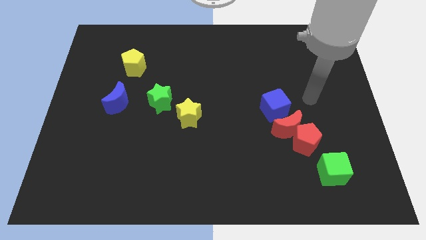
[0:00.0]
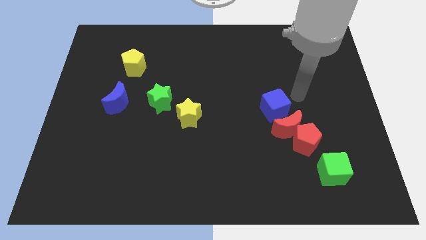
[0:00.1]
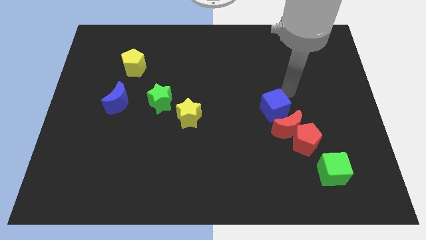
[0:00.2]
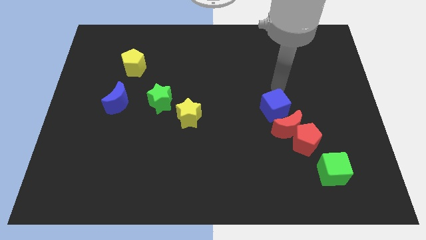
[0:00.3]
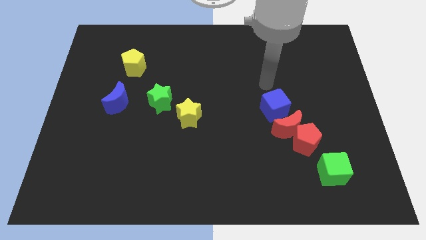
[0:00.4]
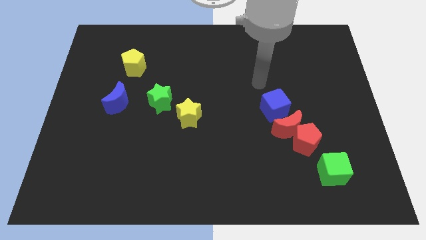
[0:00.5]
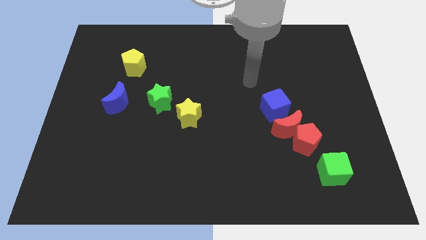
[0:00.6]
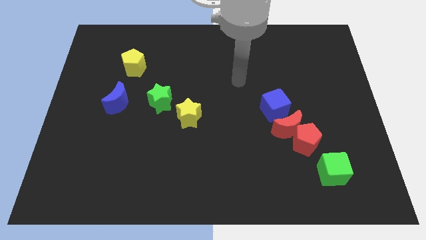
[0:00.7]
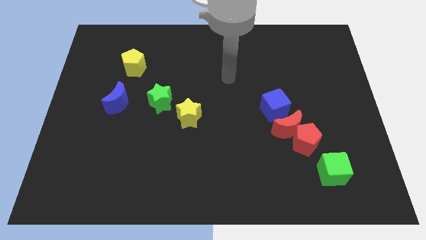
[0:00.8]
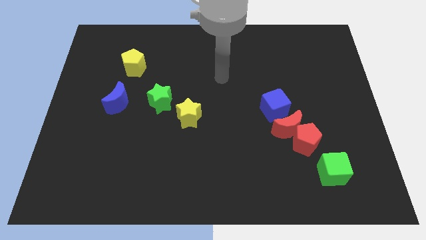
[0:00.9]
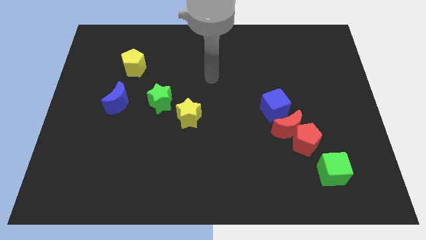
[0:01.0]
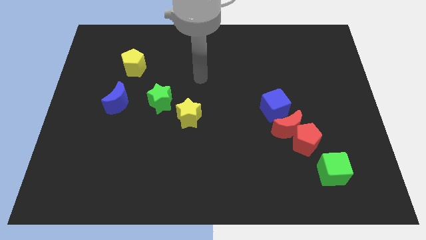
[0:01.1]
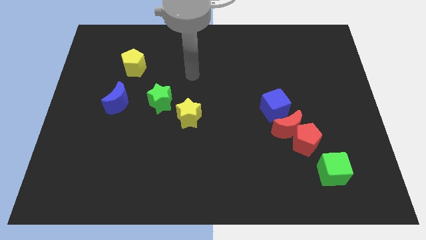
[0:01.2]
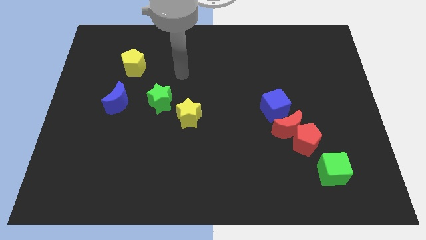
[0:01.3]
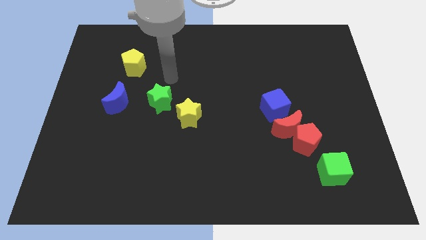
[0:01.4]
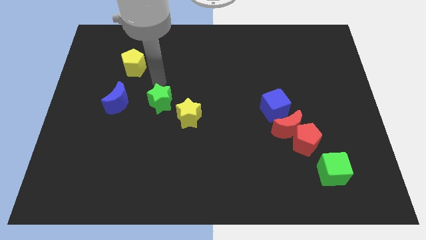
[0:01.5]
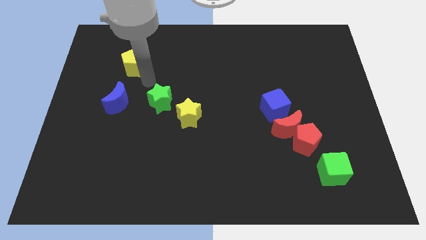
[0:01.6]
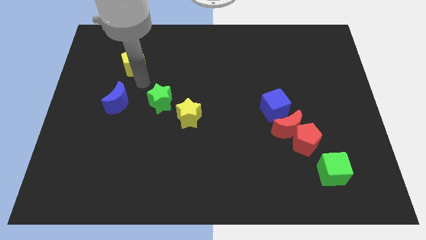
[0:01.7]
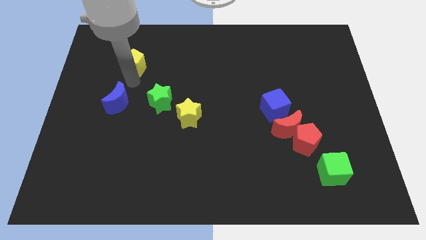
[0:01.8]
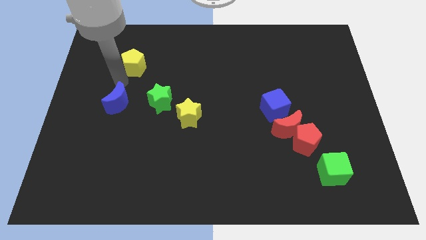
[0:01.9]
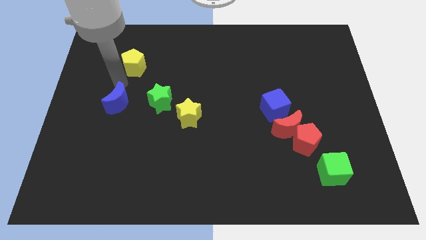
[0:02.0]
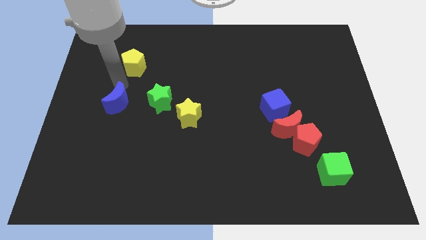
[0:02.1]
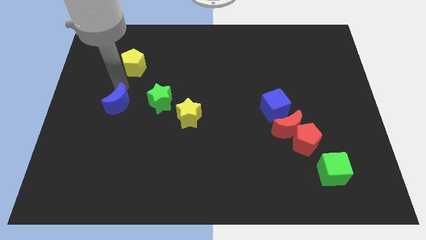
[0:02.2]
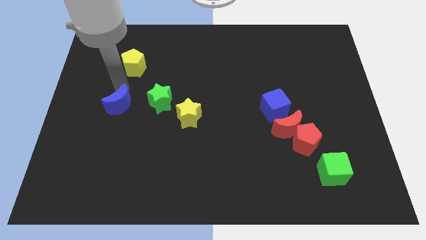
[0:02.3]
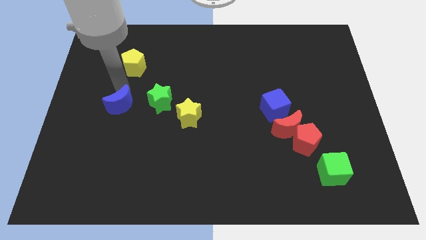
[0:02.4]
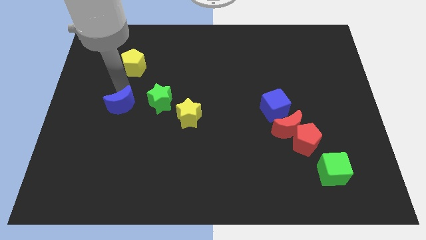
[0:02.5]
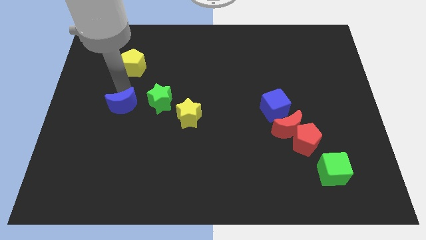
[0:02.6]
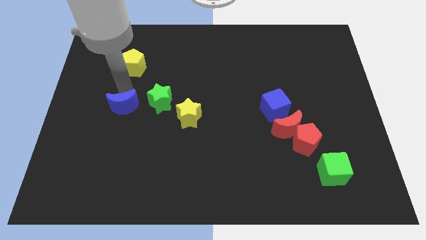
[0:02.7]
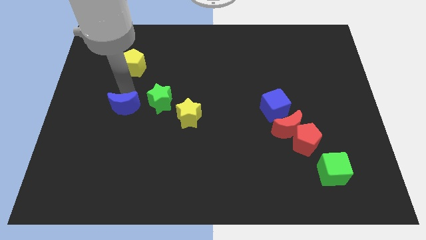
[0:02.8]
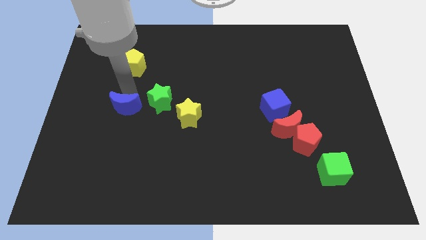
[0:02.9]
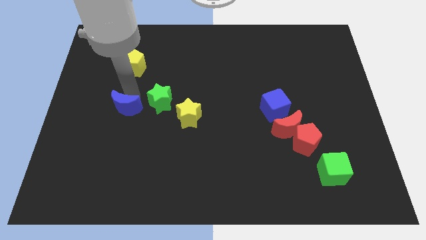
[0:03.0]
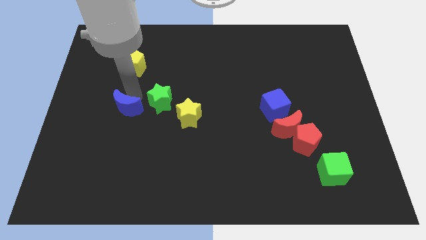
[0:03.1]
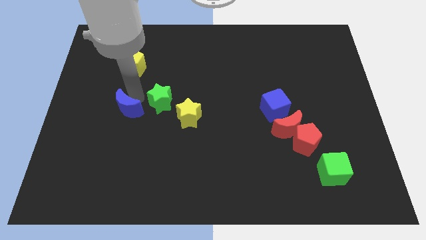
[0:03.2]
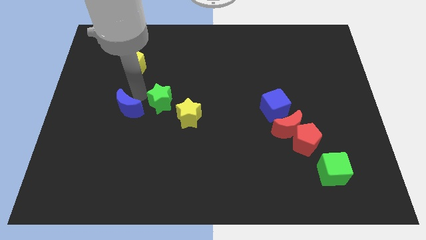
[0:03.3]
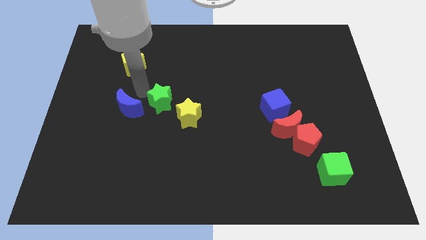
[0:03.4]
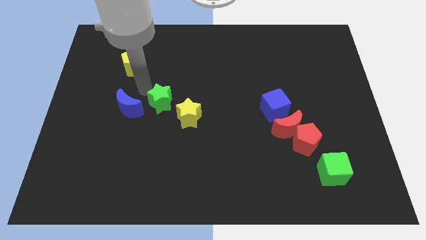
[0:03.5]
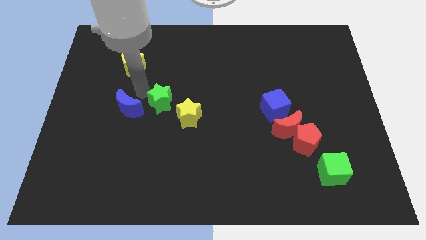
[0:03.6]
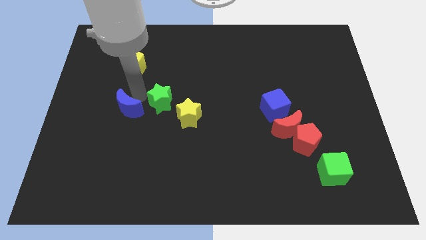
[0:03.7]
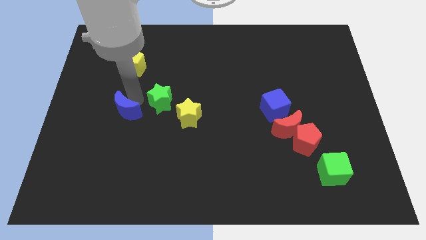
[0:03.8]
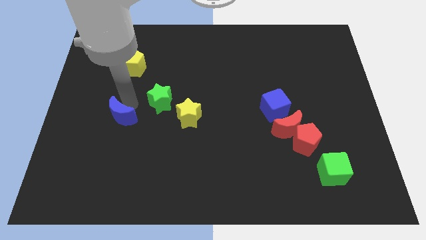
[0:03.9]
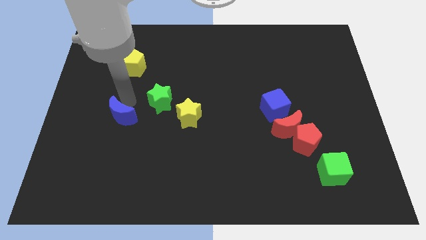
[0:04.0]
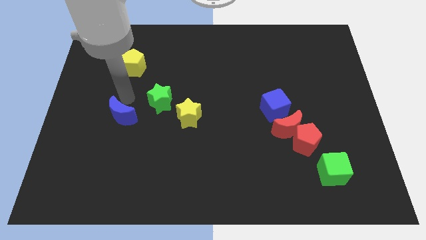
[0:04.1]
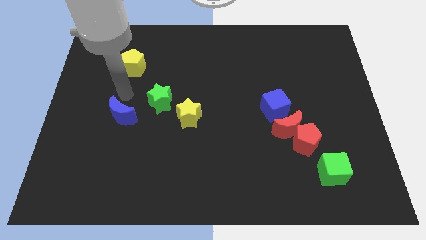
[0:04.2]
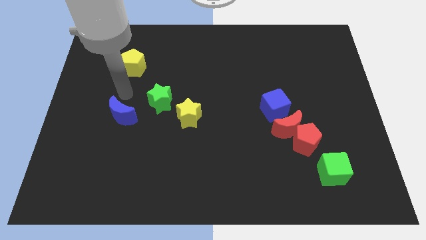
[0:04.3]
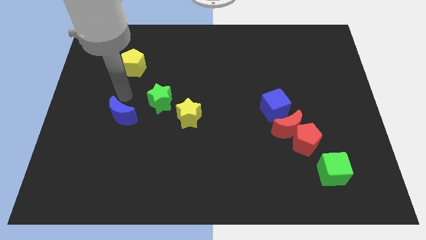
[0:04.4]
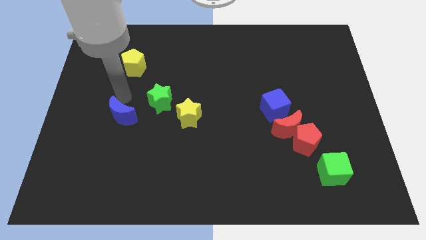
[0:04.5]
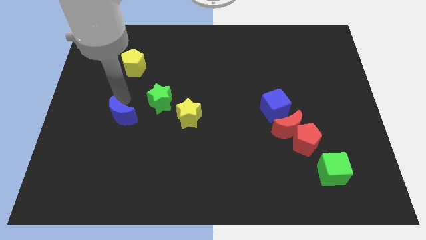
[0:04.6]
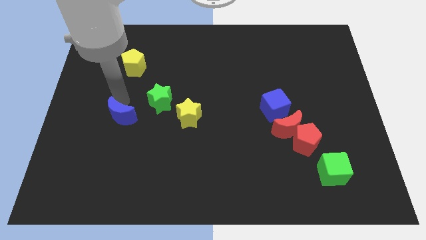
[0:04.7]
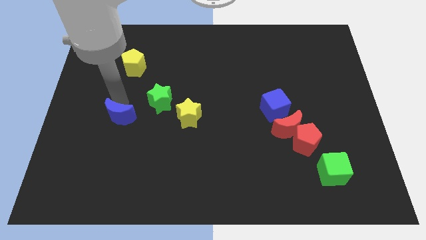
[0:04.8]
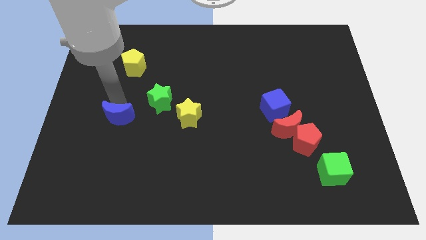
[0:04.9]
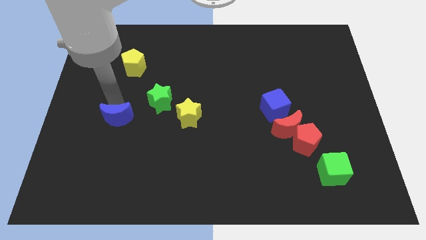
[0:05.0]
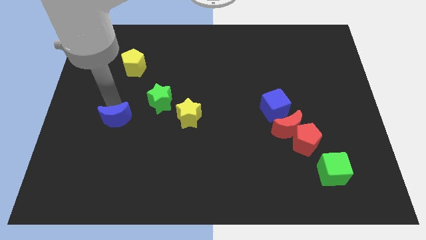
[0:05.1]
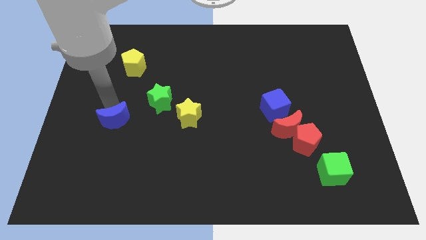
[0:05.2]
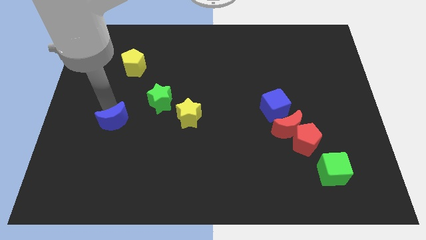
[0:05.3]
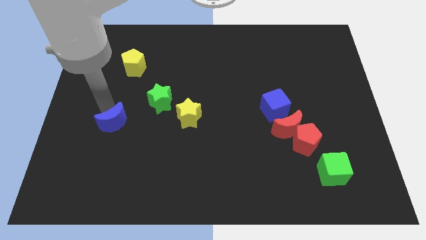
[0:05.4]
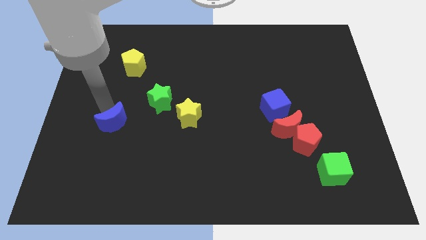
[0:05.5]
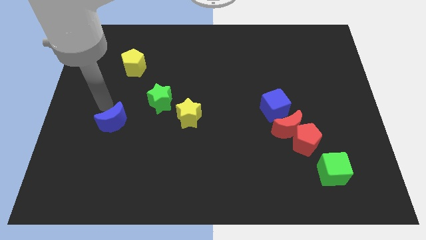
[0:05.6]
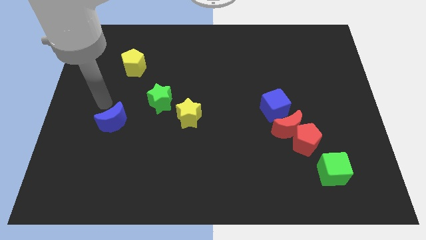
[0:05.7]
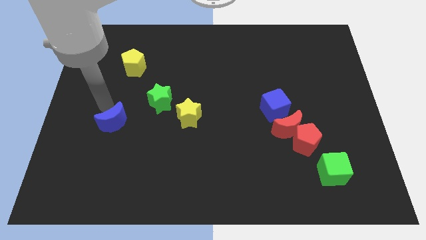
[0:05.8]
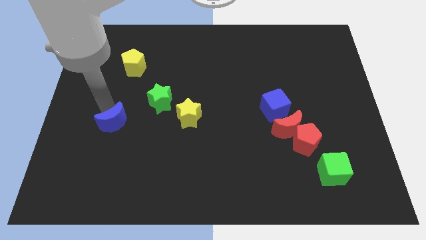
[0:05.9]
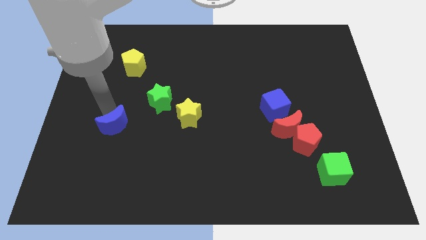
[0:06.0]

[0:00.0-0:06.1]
push the blue moon downwards a little bit

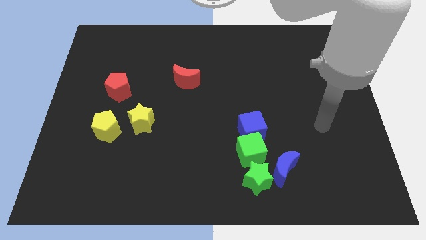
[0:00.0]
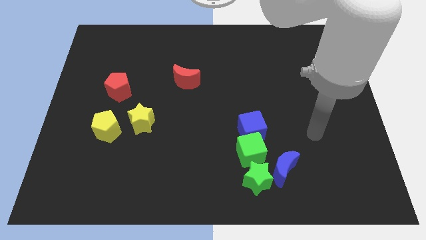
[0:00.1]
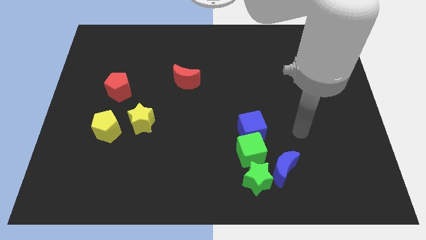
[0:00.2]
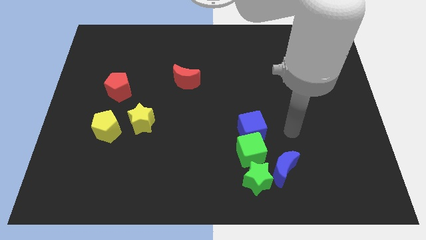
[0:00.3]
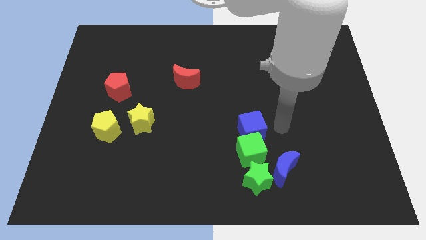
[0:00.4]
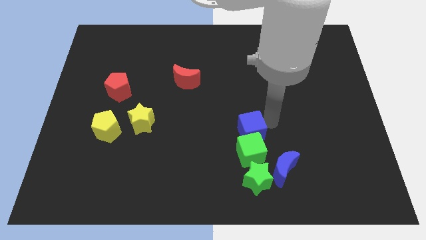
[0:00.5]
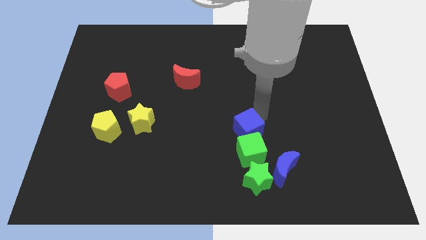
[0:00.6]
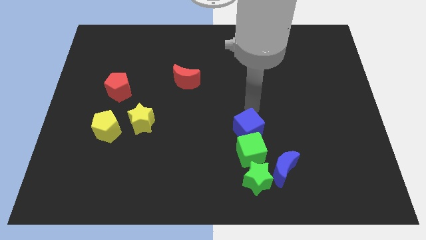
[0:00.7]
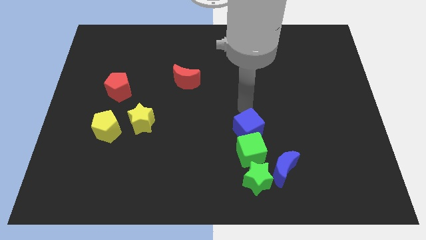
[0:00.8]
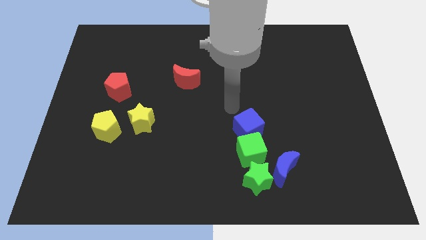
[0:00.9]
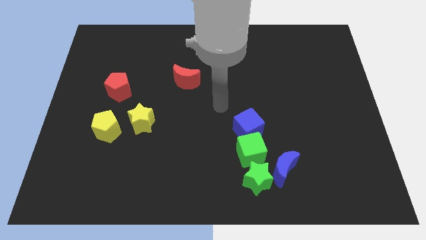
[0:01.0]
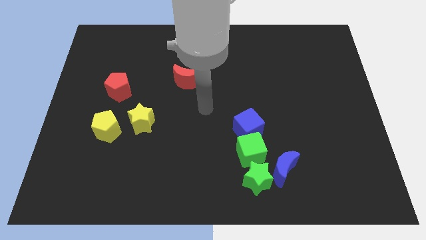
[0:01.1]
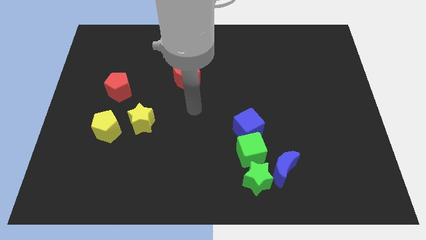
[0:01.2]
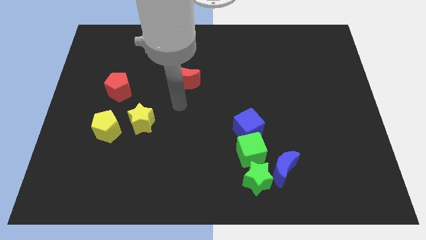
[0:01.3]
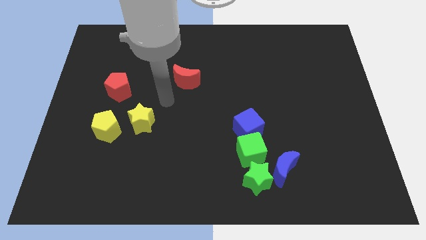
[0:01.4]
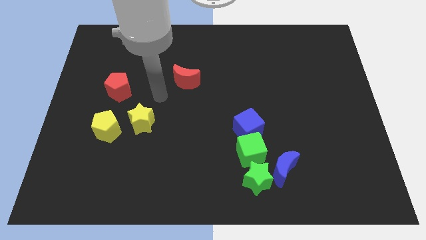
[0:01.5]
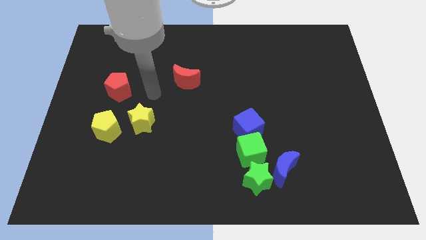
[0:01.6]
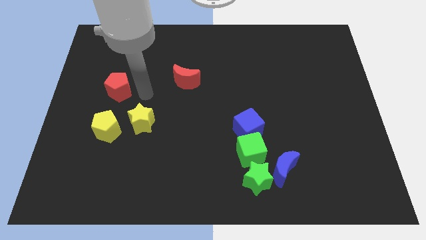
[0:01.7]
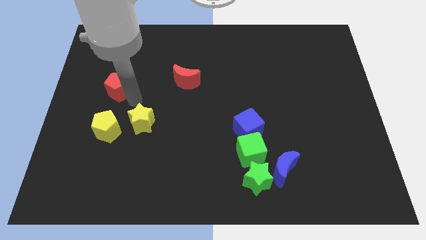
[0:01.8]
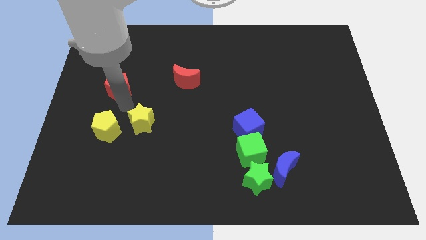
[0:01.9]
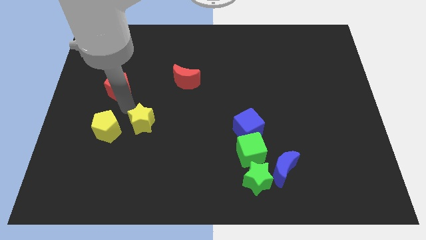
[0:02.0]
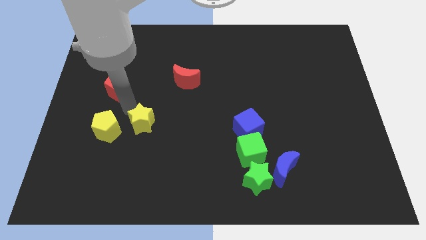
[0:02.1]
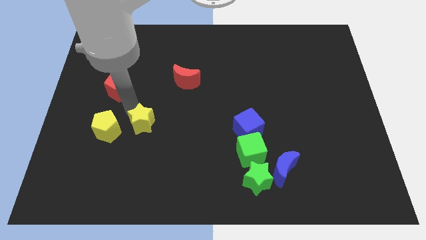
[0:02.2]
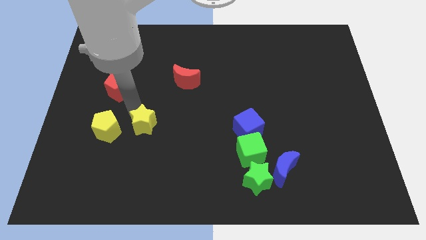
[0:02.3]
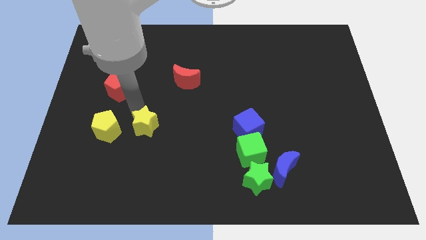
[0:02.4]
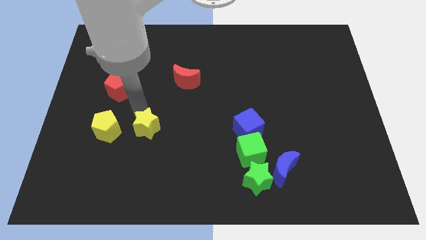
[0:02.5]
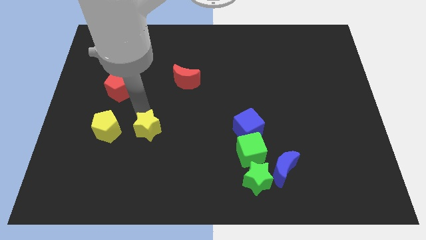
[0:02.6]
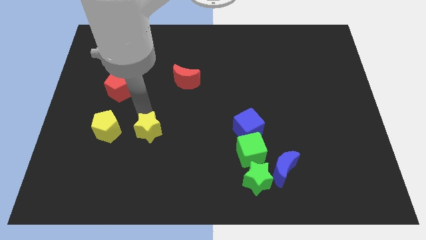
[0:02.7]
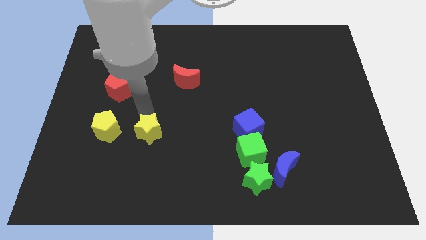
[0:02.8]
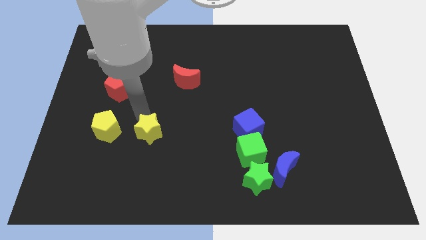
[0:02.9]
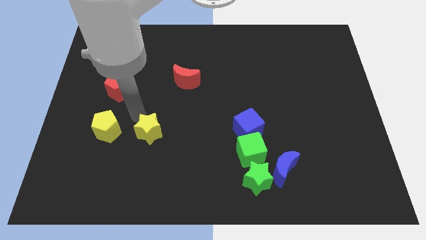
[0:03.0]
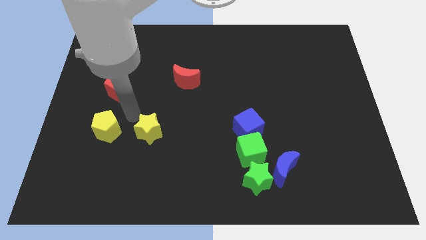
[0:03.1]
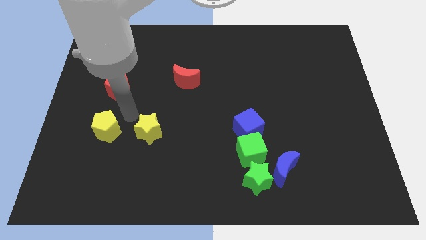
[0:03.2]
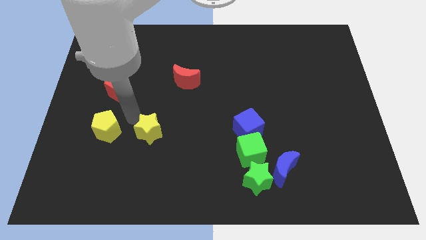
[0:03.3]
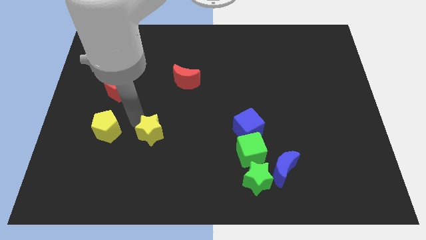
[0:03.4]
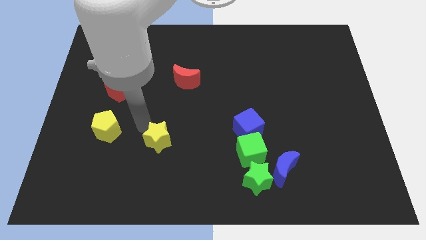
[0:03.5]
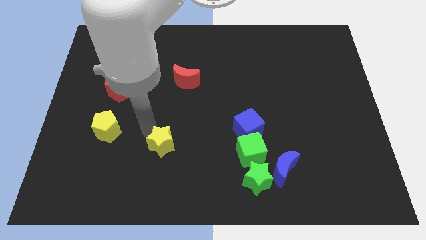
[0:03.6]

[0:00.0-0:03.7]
slightly move the yellow star downwards and then to the right
